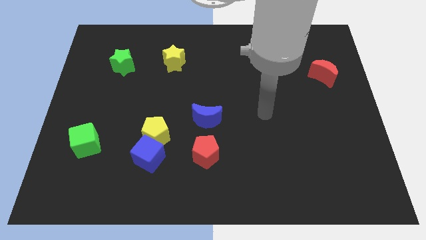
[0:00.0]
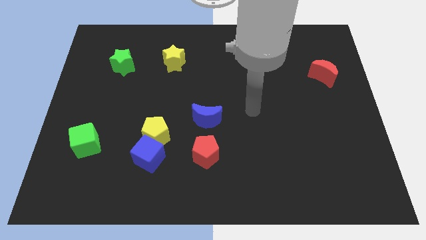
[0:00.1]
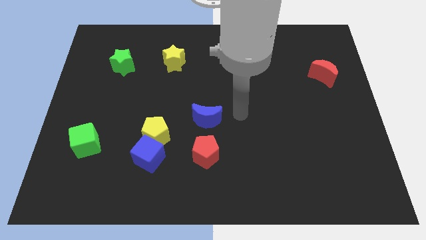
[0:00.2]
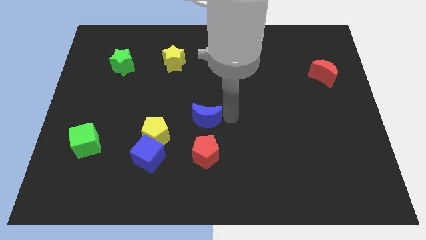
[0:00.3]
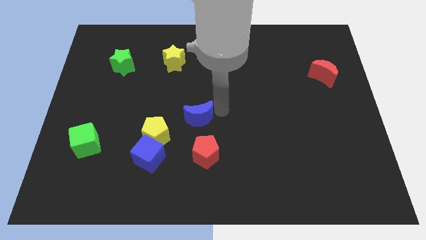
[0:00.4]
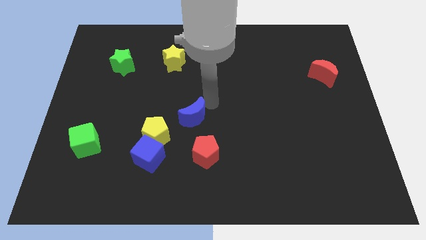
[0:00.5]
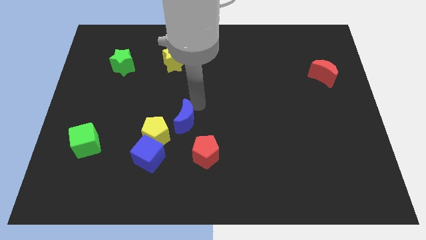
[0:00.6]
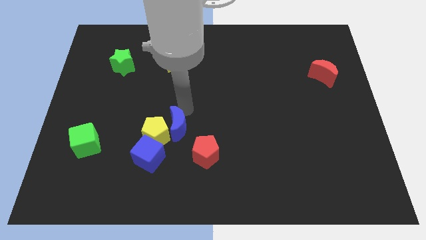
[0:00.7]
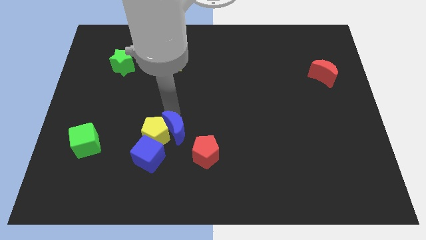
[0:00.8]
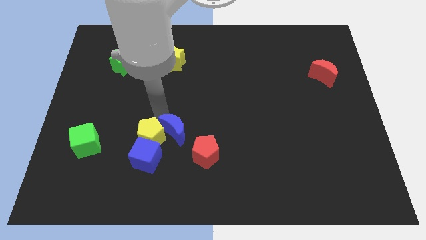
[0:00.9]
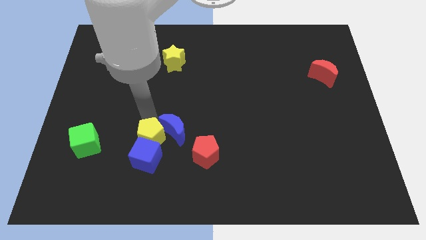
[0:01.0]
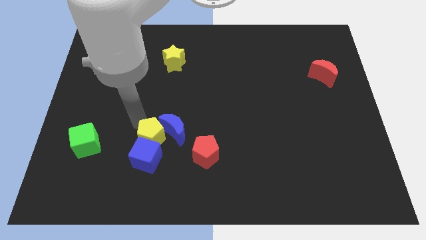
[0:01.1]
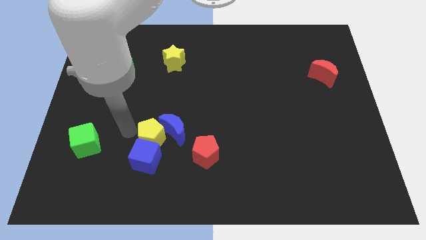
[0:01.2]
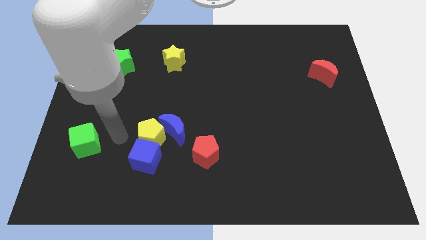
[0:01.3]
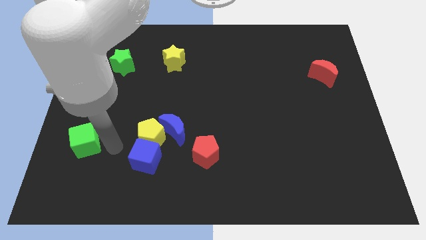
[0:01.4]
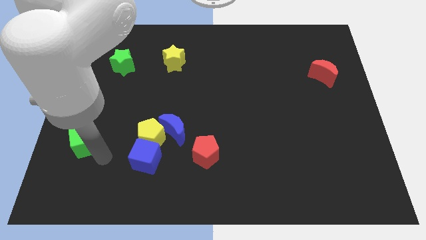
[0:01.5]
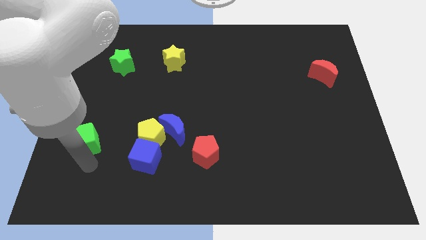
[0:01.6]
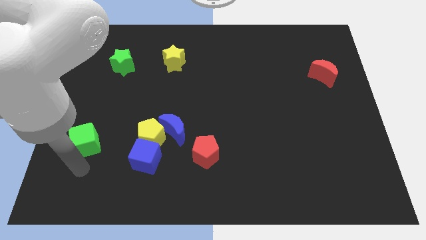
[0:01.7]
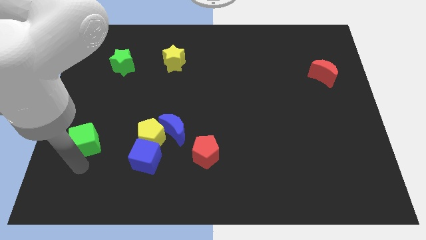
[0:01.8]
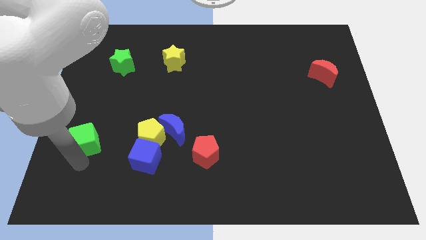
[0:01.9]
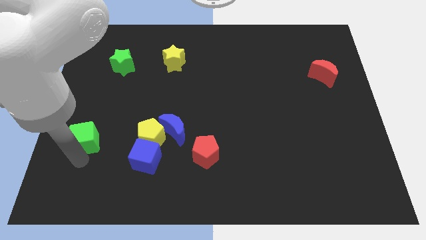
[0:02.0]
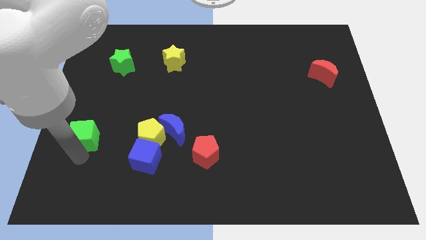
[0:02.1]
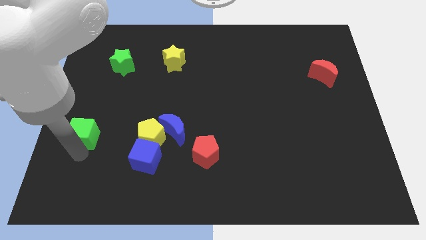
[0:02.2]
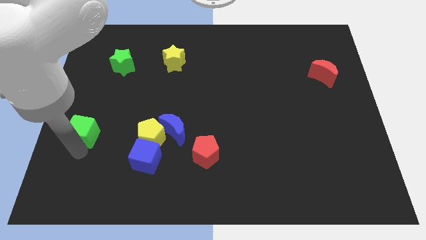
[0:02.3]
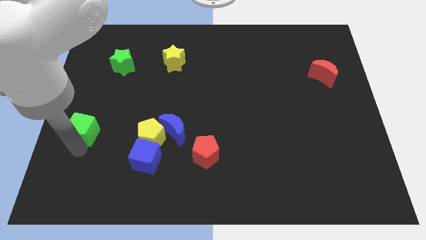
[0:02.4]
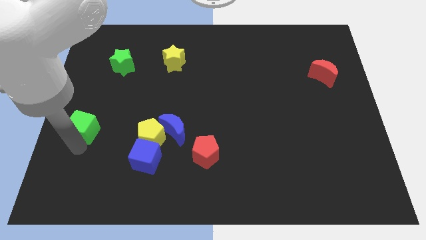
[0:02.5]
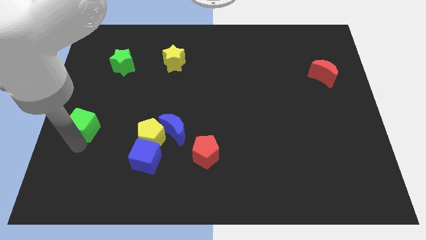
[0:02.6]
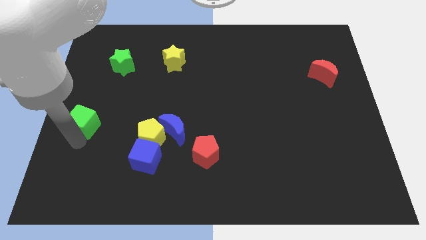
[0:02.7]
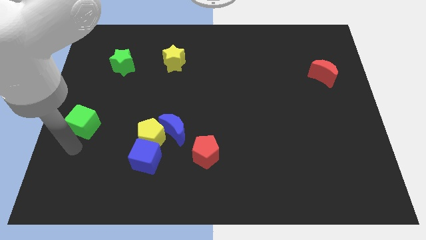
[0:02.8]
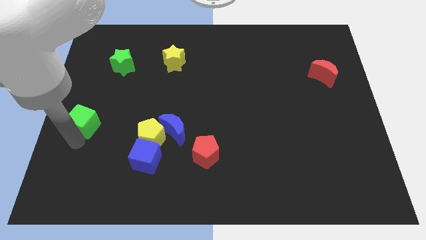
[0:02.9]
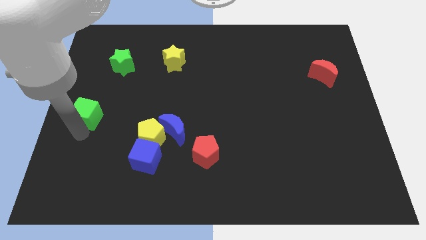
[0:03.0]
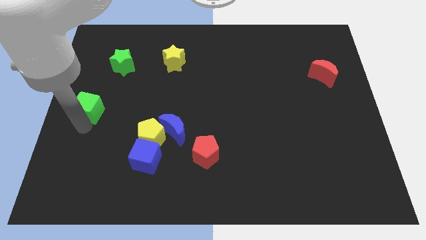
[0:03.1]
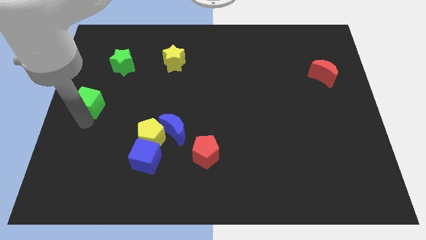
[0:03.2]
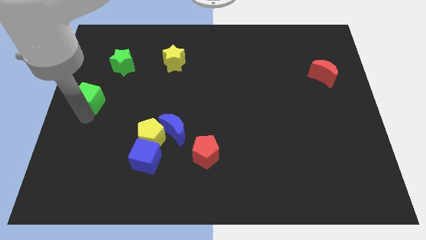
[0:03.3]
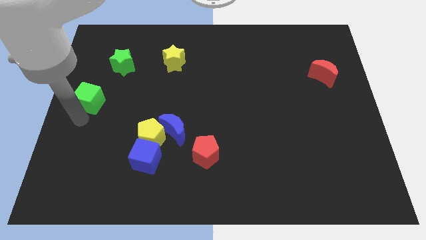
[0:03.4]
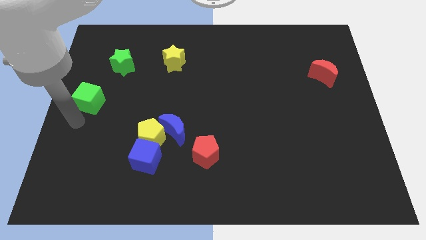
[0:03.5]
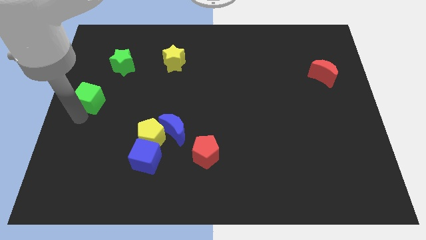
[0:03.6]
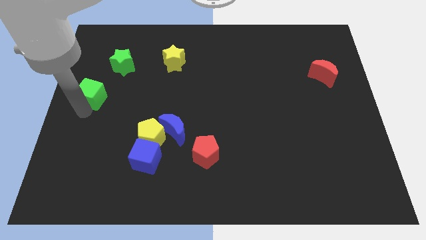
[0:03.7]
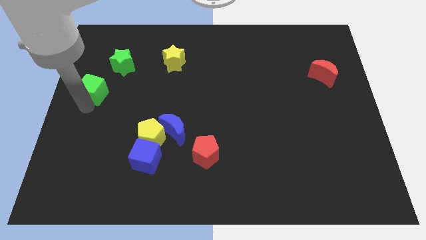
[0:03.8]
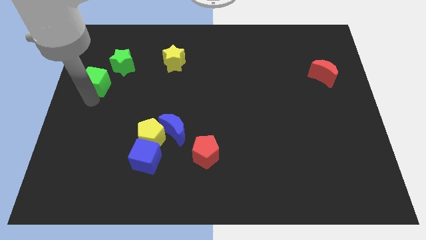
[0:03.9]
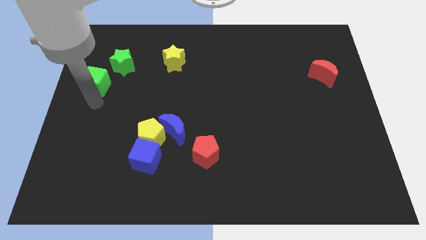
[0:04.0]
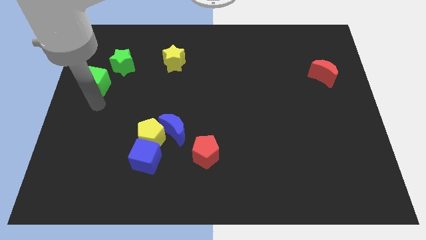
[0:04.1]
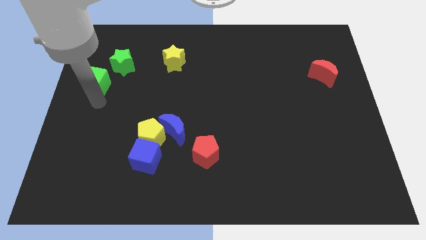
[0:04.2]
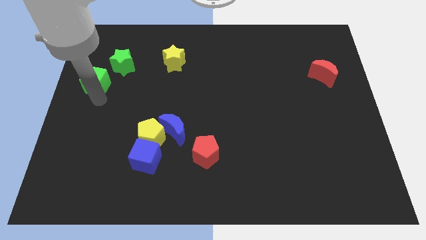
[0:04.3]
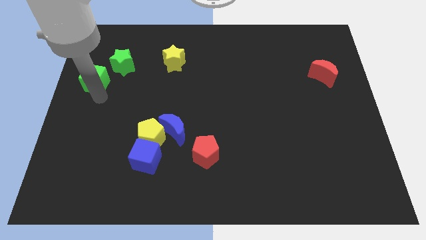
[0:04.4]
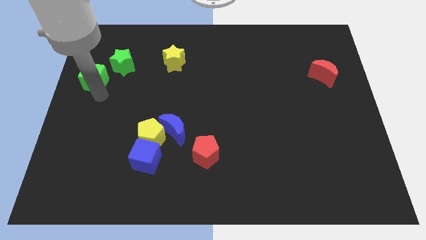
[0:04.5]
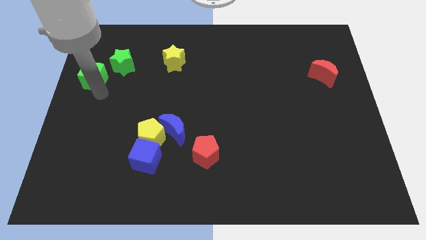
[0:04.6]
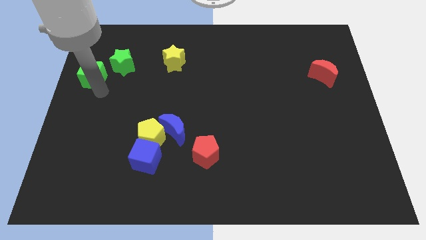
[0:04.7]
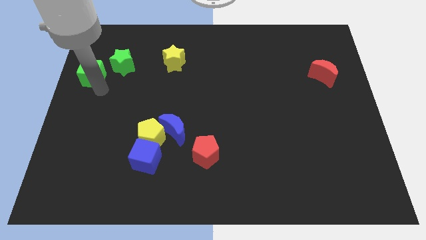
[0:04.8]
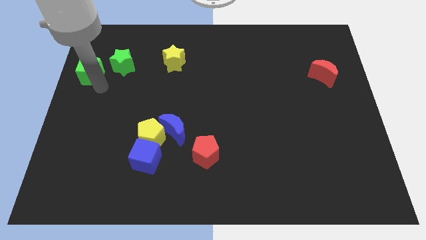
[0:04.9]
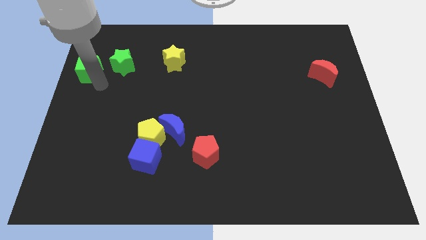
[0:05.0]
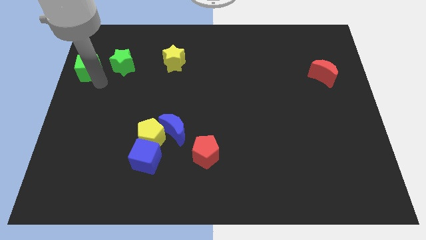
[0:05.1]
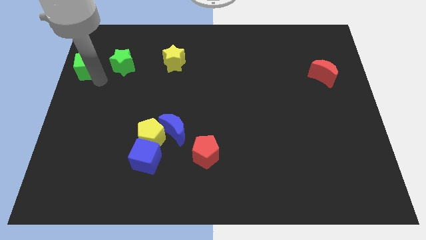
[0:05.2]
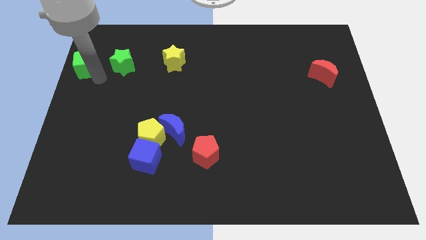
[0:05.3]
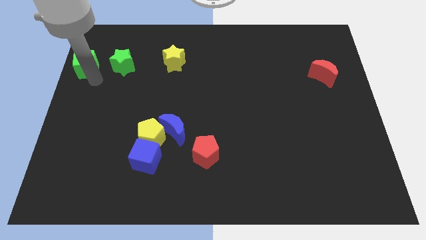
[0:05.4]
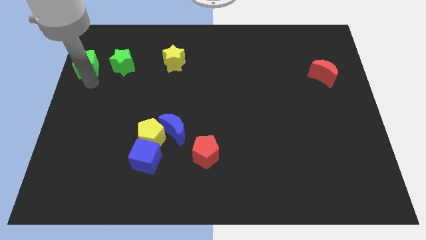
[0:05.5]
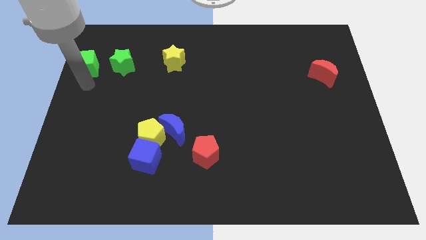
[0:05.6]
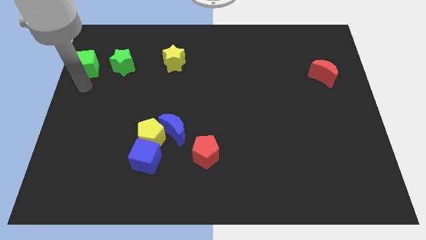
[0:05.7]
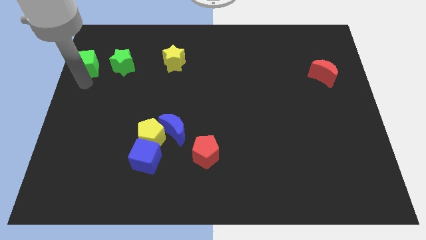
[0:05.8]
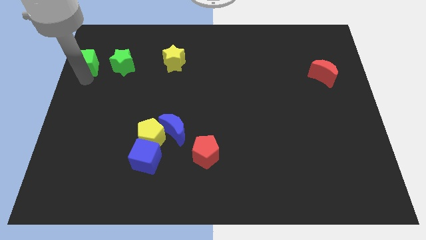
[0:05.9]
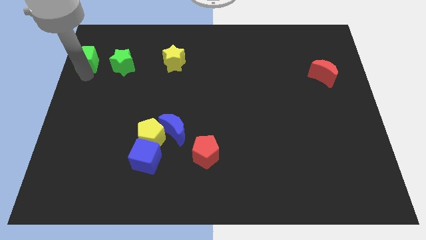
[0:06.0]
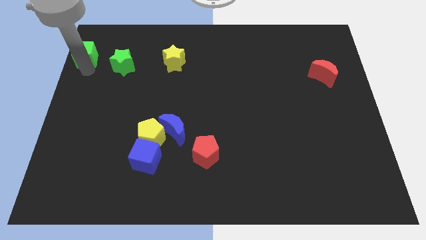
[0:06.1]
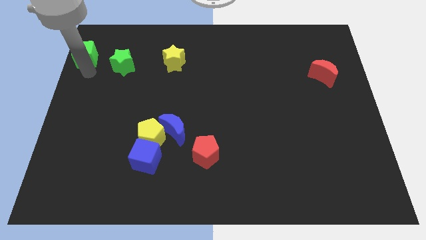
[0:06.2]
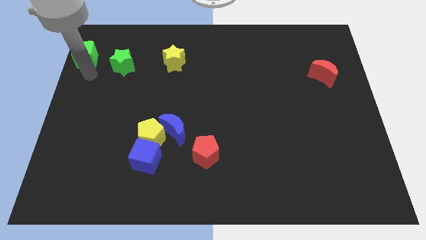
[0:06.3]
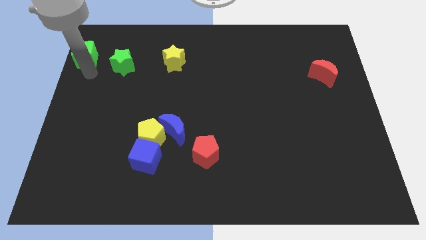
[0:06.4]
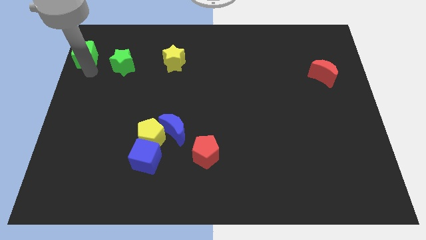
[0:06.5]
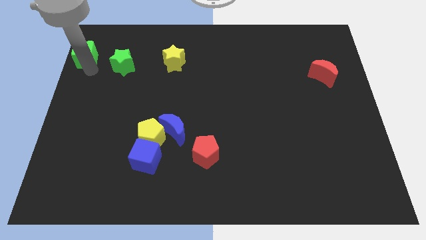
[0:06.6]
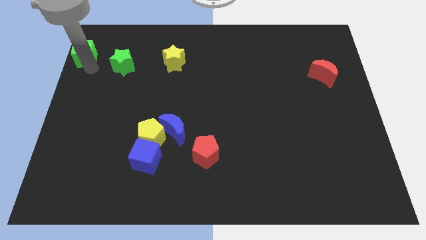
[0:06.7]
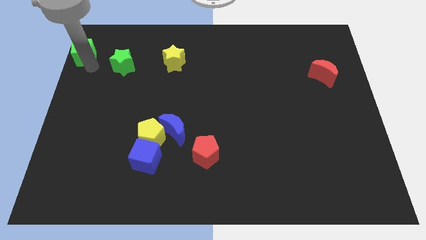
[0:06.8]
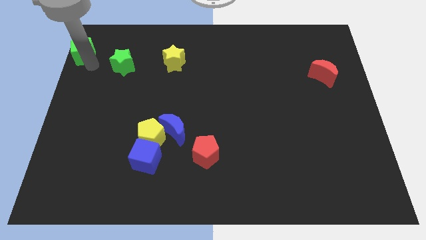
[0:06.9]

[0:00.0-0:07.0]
push the green cube to the top left
